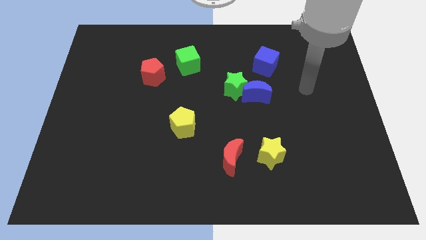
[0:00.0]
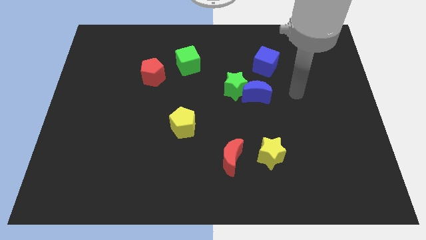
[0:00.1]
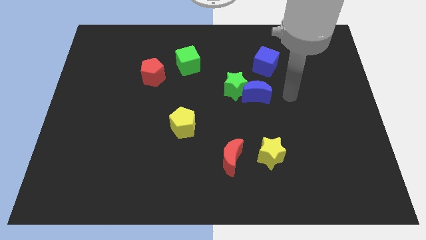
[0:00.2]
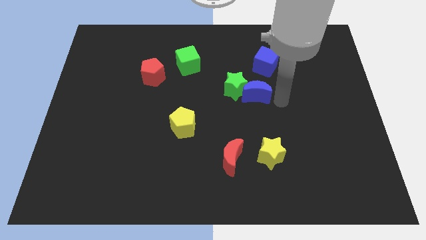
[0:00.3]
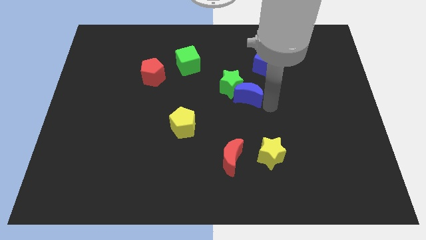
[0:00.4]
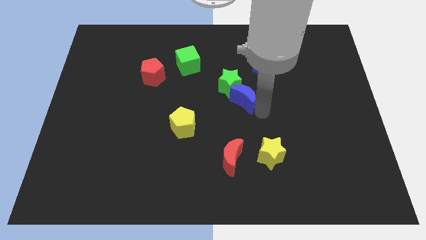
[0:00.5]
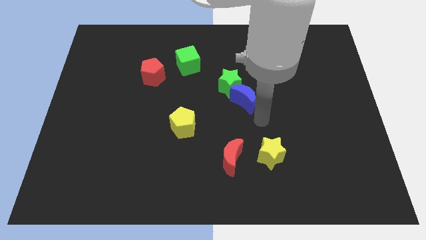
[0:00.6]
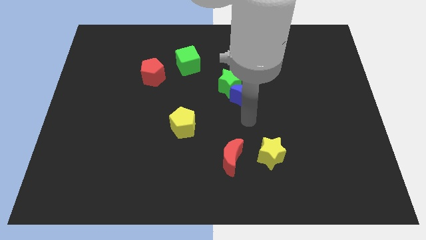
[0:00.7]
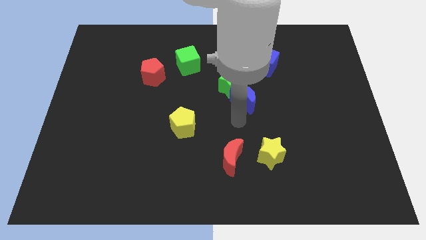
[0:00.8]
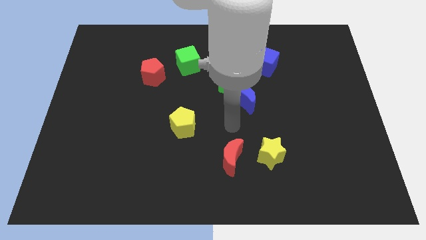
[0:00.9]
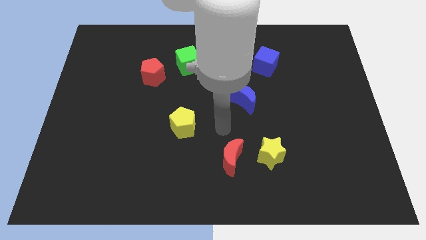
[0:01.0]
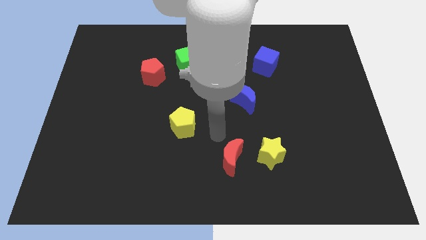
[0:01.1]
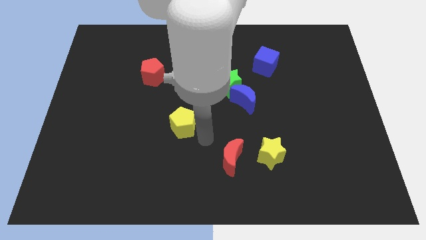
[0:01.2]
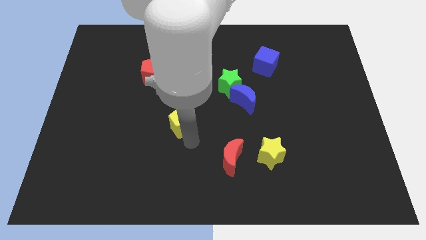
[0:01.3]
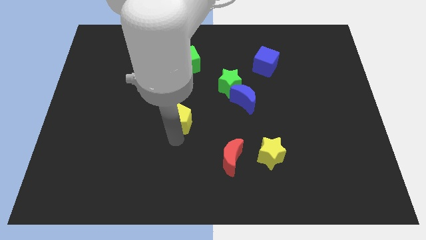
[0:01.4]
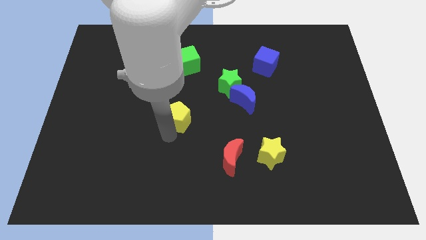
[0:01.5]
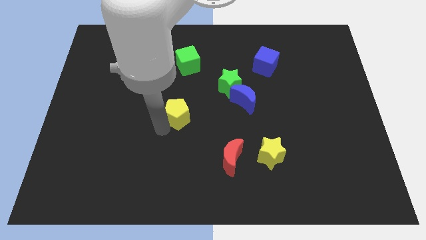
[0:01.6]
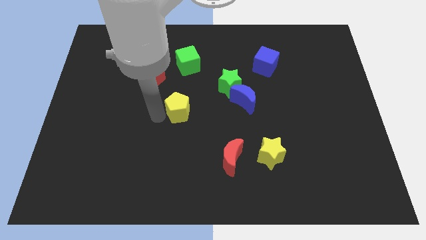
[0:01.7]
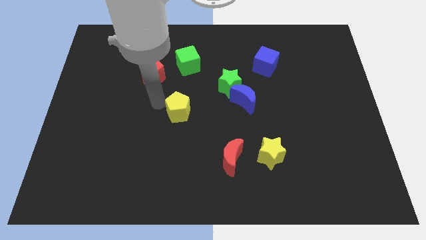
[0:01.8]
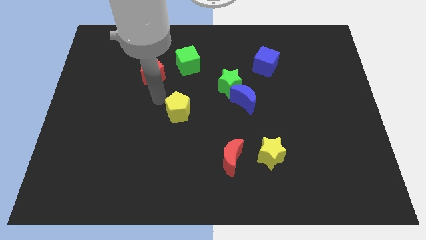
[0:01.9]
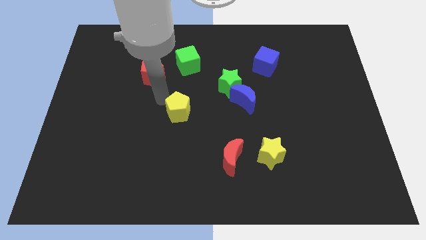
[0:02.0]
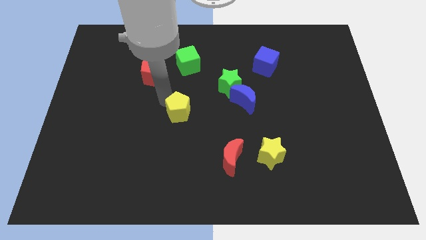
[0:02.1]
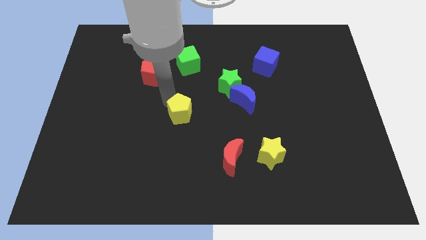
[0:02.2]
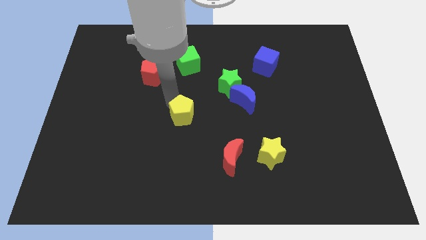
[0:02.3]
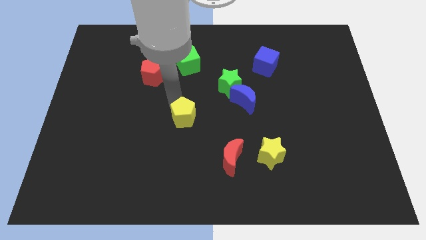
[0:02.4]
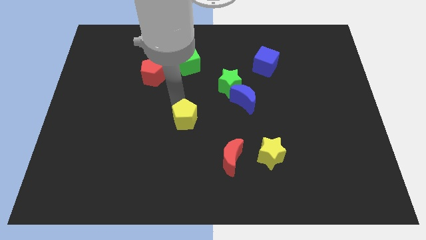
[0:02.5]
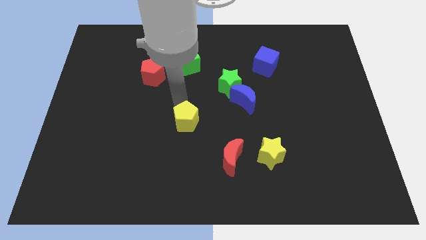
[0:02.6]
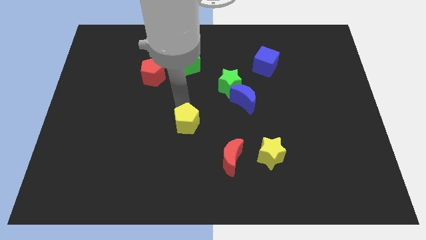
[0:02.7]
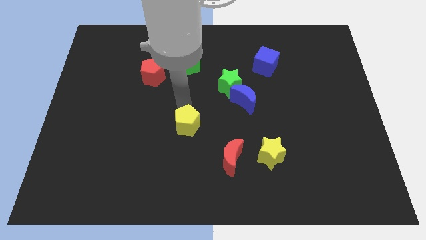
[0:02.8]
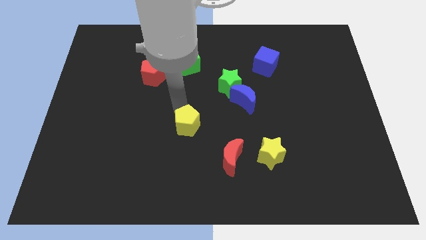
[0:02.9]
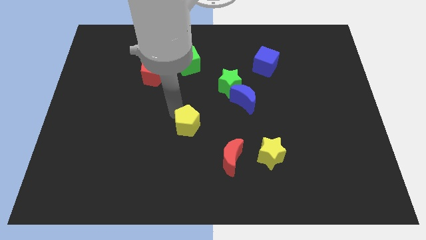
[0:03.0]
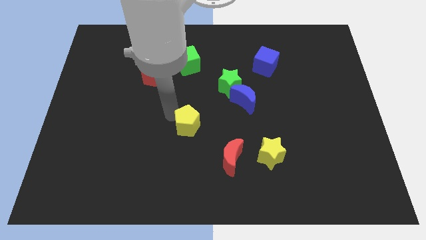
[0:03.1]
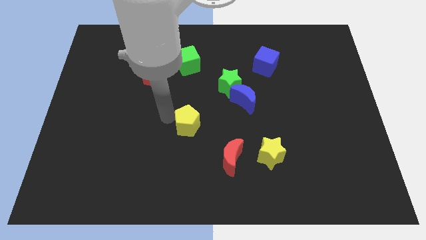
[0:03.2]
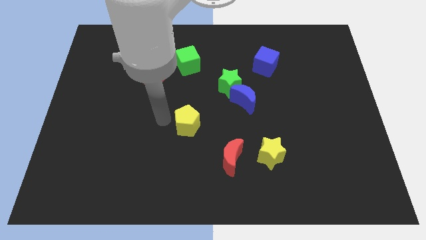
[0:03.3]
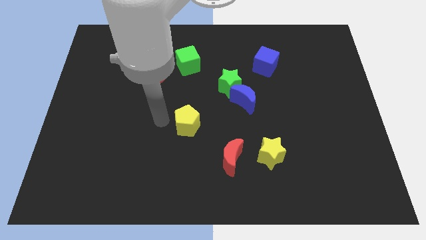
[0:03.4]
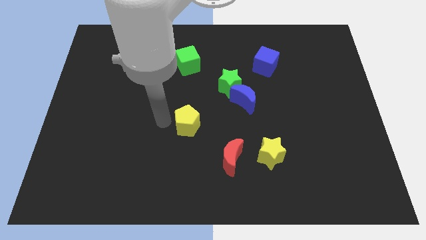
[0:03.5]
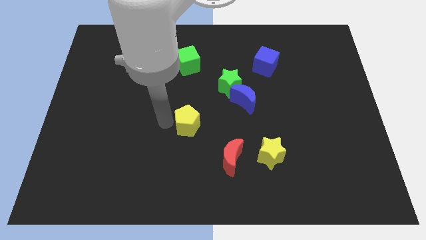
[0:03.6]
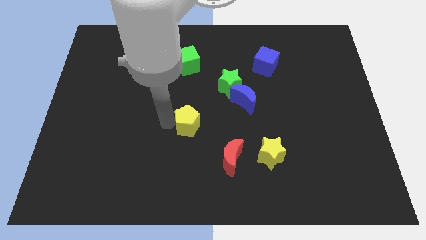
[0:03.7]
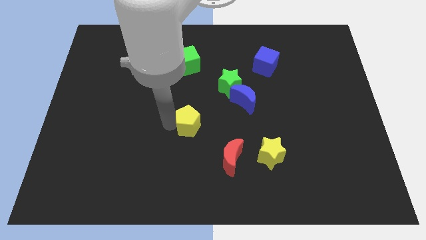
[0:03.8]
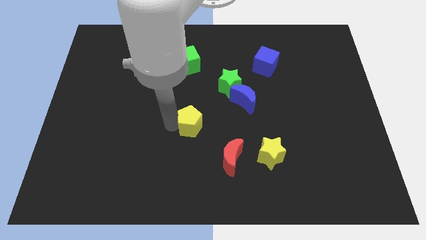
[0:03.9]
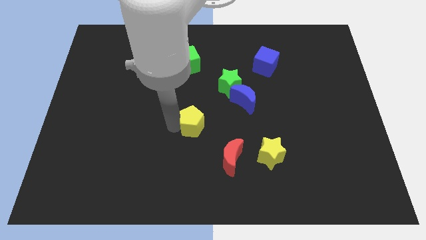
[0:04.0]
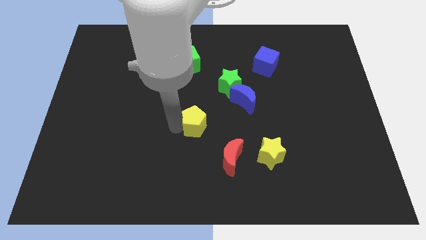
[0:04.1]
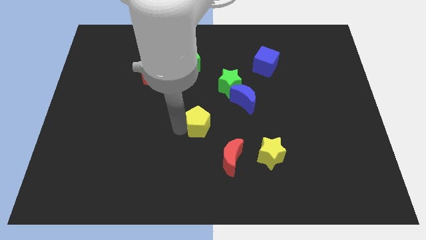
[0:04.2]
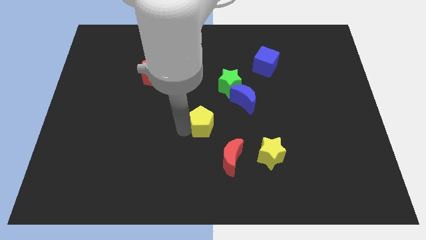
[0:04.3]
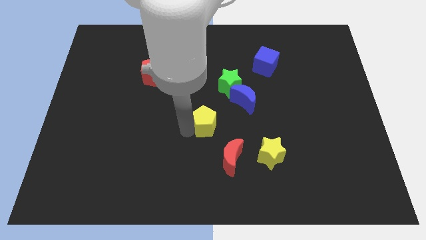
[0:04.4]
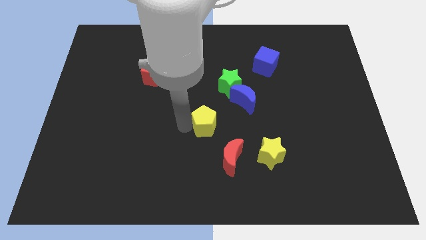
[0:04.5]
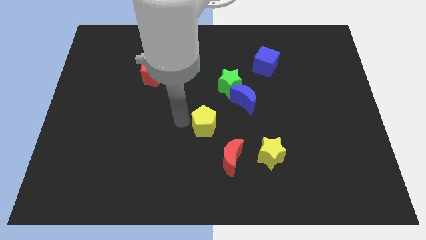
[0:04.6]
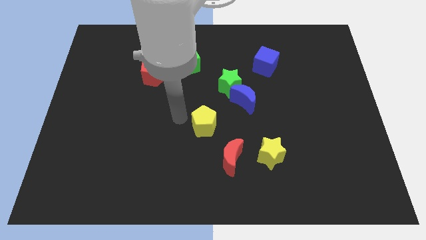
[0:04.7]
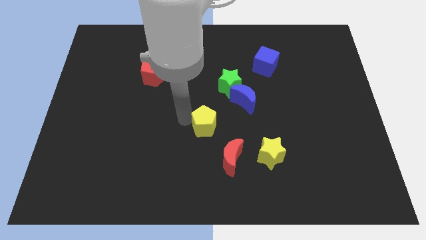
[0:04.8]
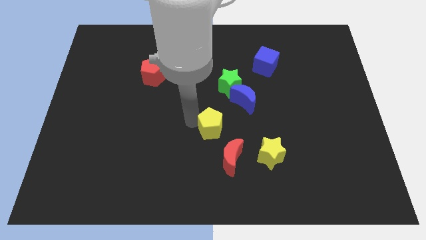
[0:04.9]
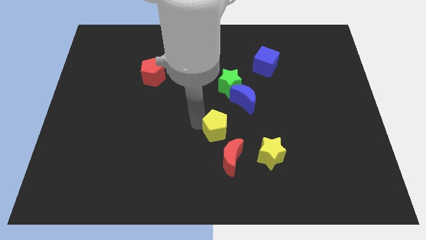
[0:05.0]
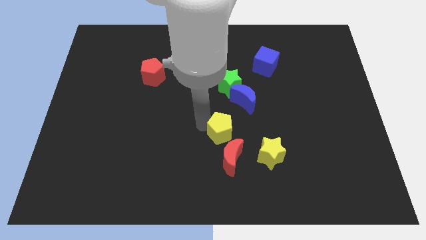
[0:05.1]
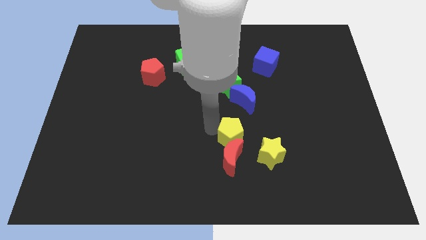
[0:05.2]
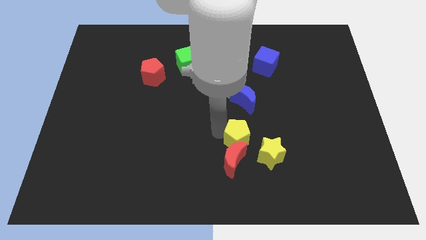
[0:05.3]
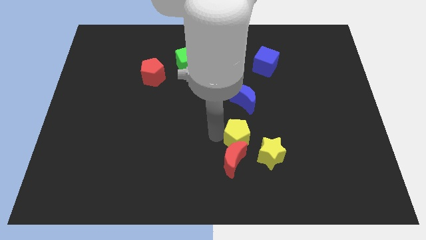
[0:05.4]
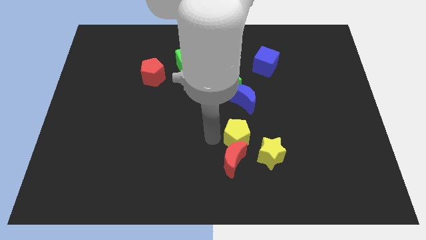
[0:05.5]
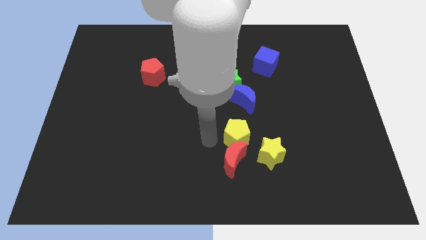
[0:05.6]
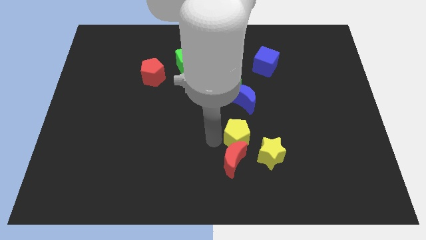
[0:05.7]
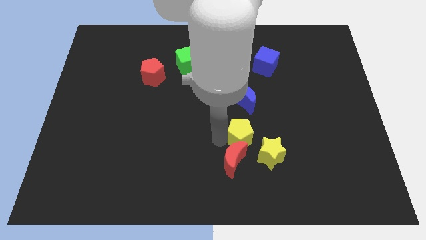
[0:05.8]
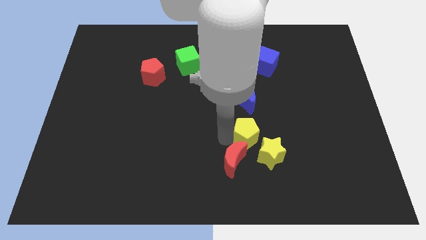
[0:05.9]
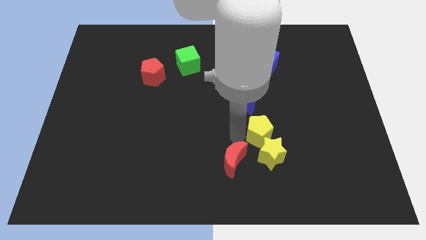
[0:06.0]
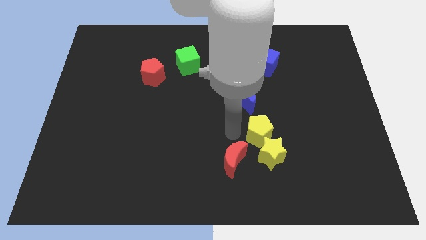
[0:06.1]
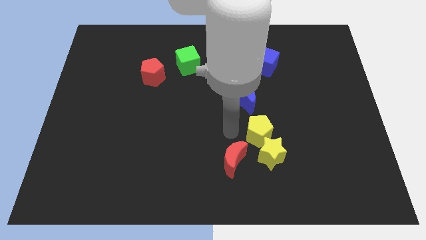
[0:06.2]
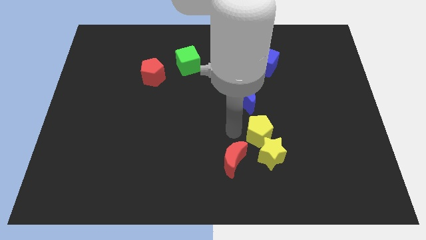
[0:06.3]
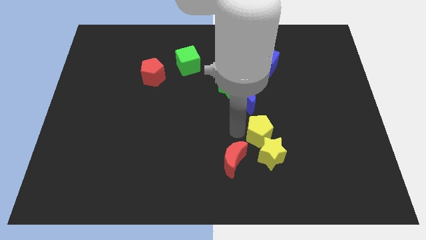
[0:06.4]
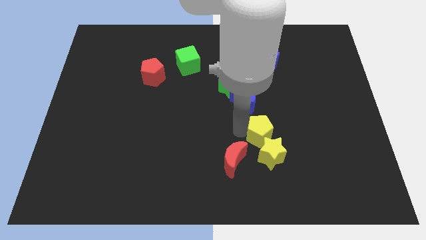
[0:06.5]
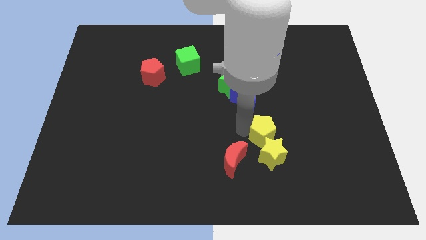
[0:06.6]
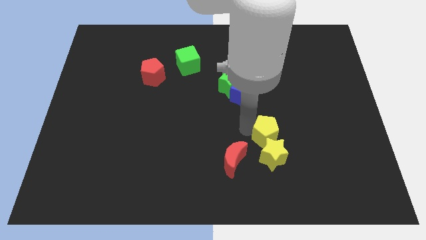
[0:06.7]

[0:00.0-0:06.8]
put the yellow pentagon to the top right side of the yellow star
